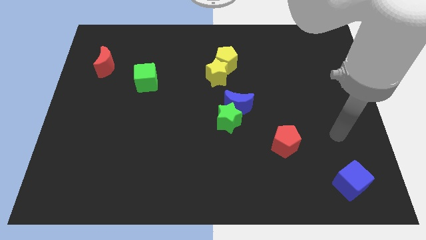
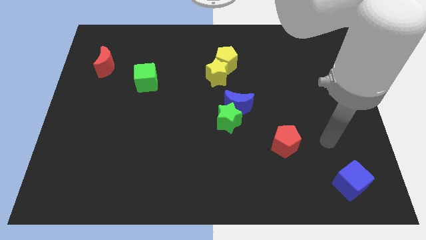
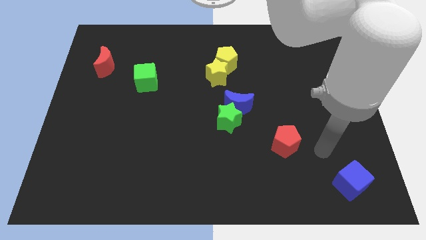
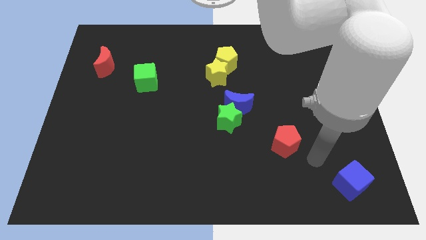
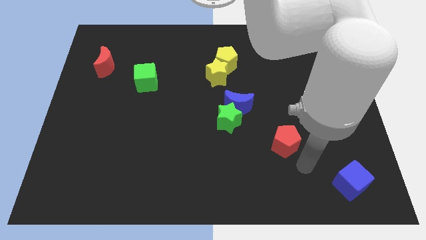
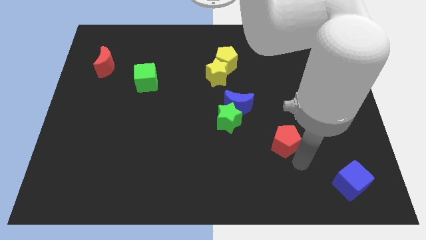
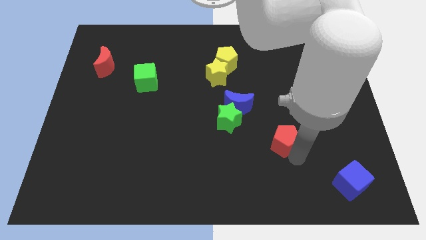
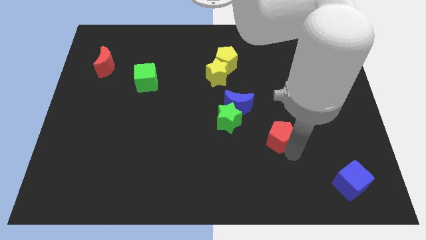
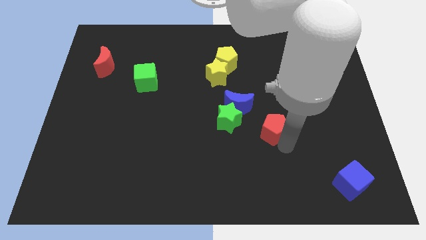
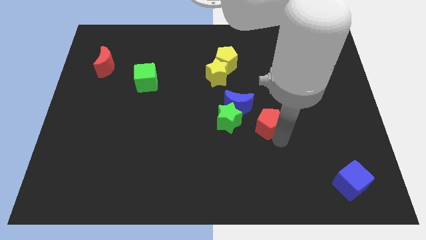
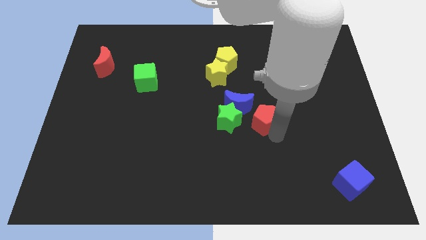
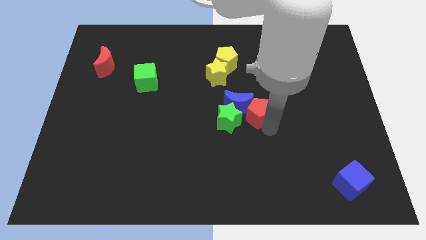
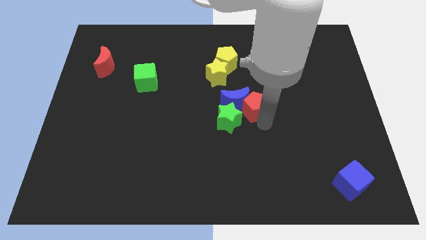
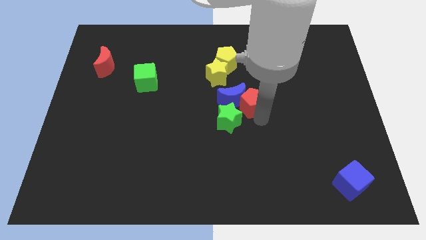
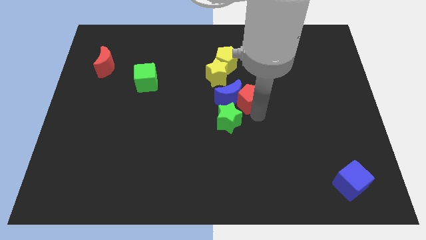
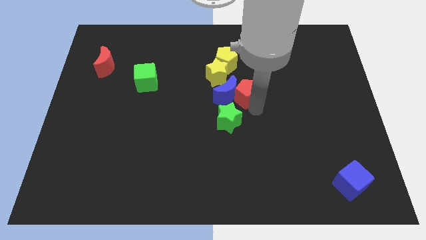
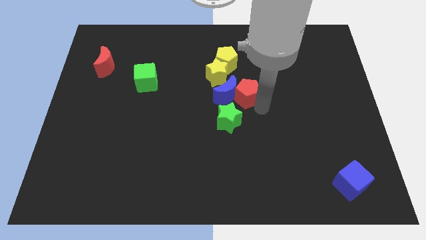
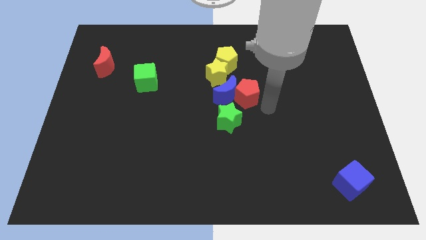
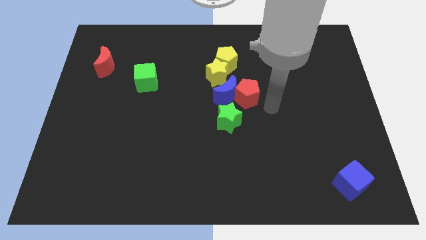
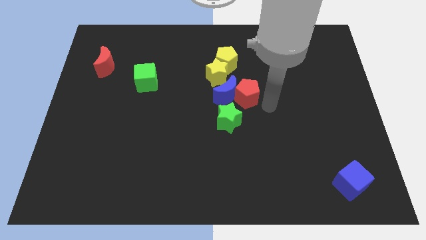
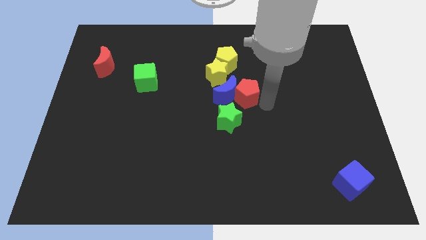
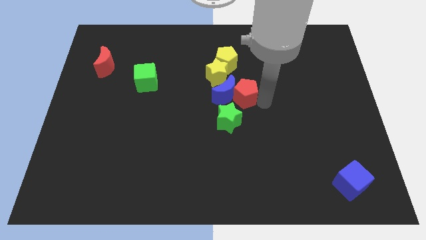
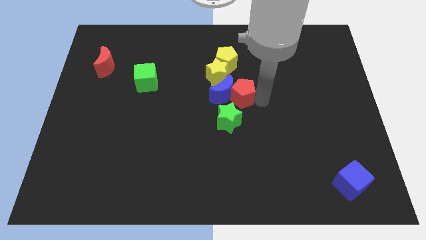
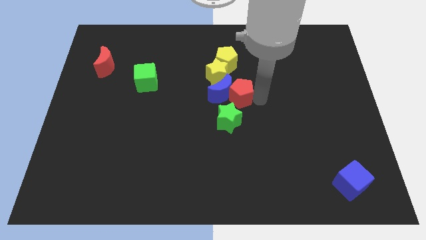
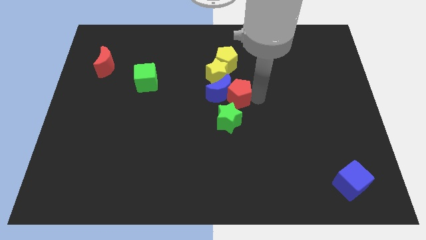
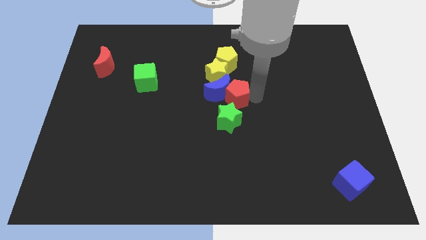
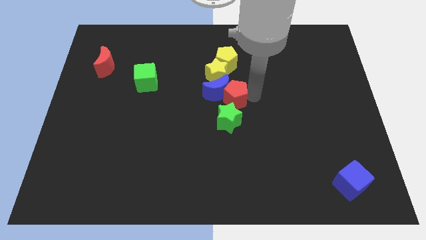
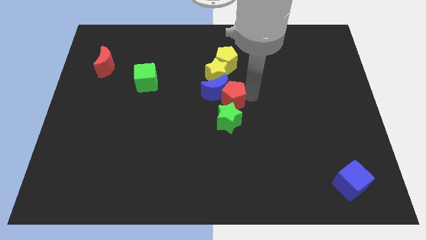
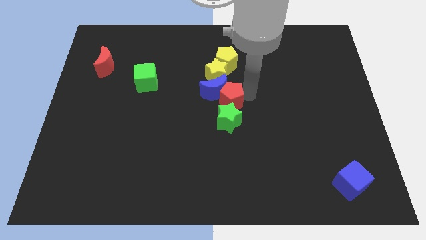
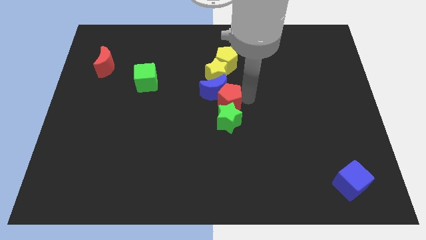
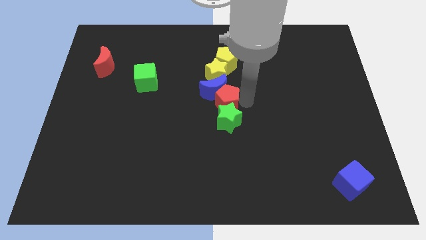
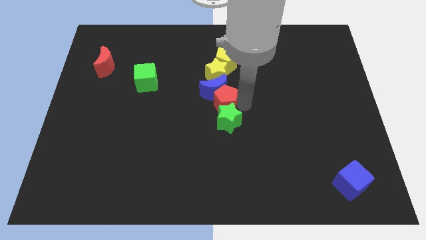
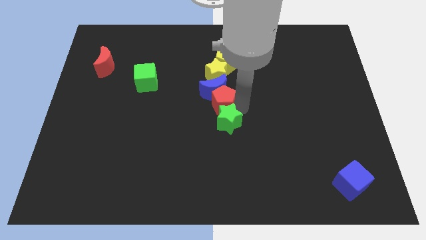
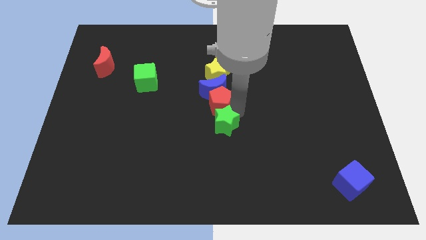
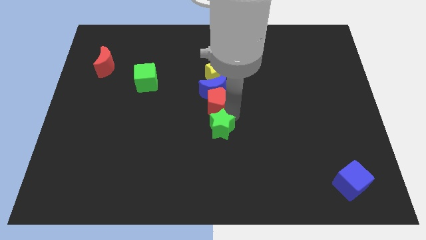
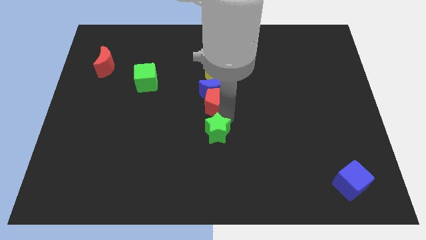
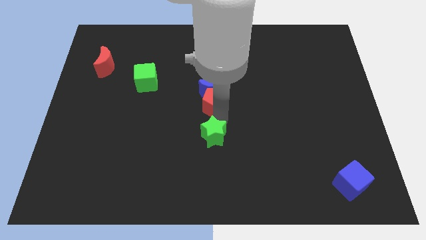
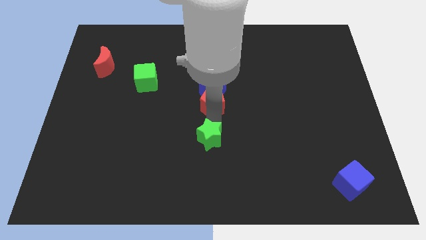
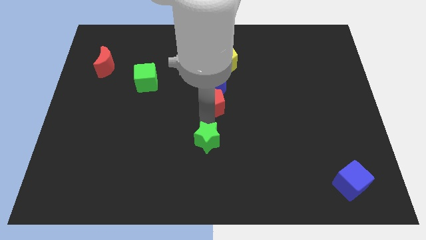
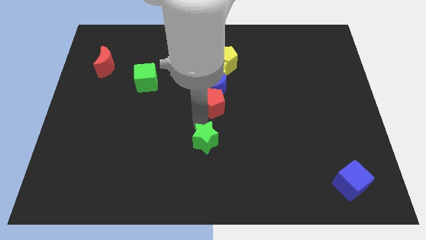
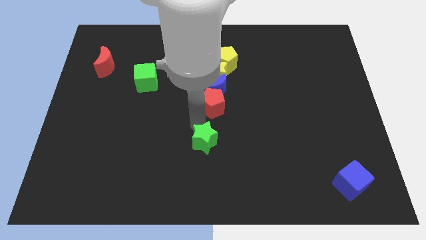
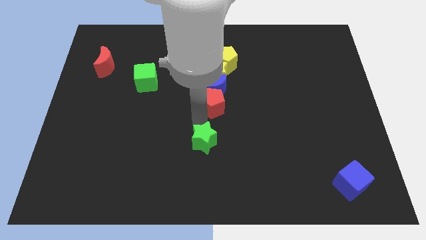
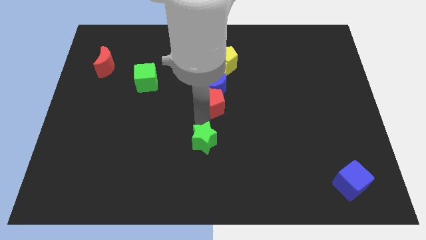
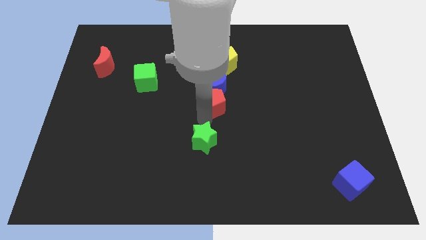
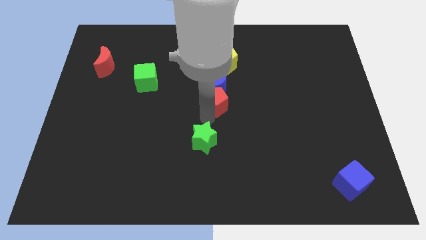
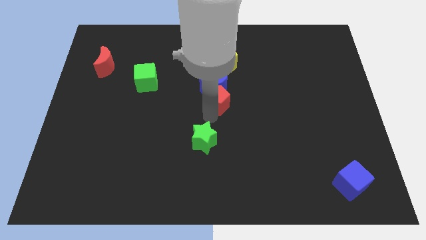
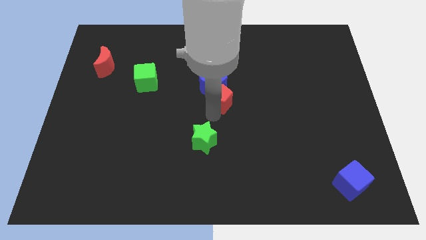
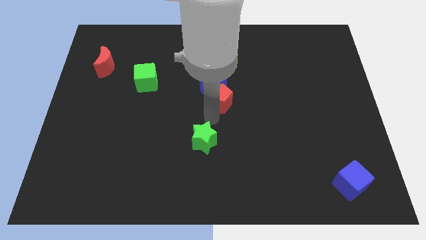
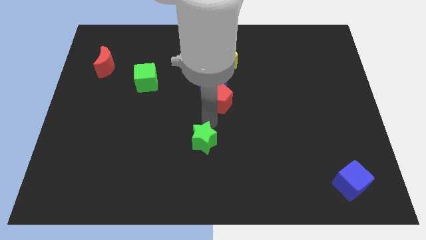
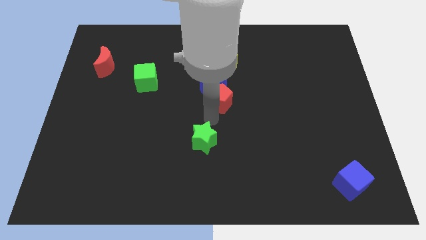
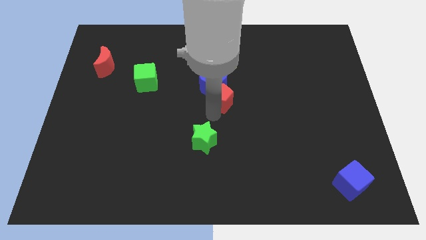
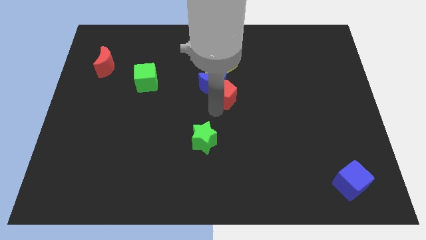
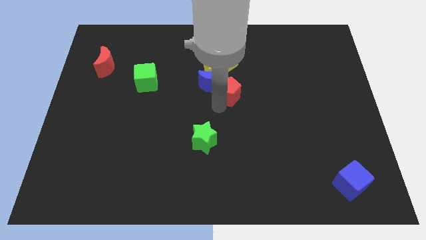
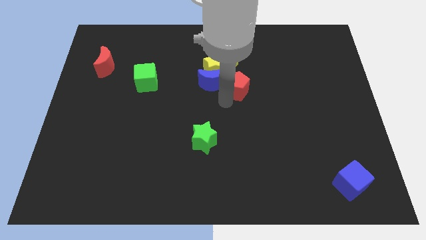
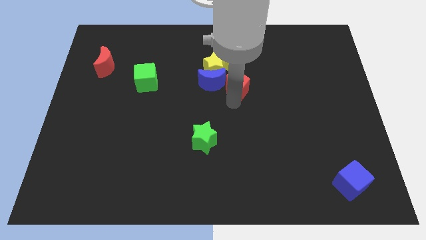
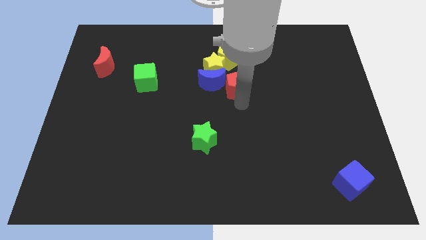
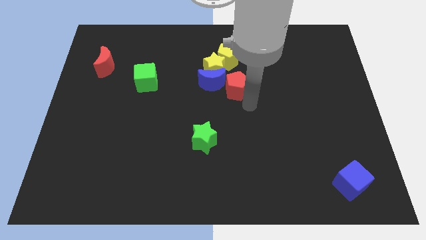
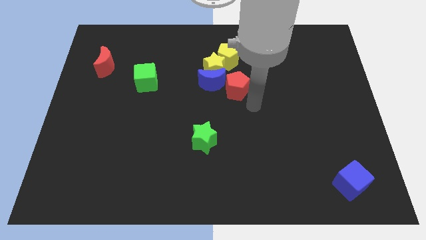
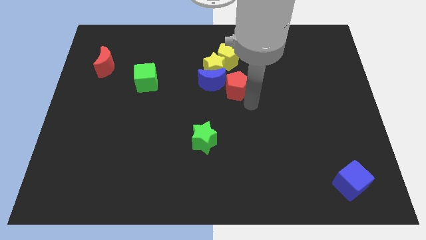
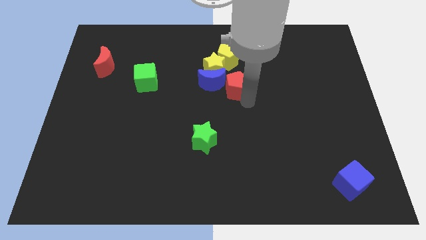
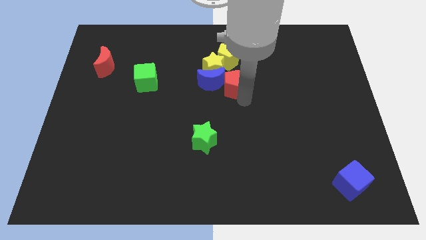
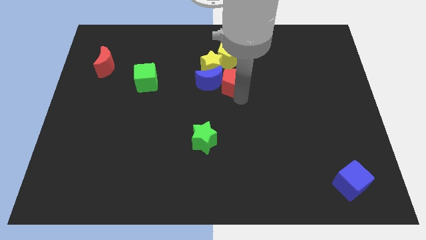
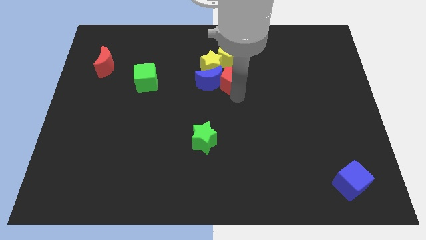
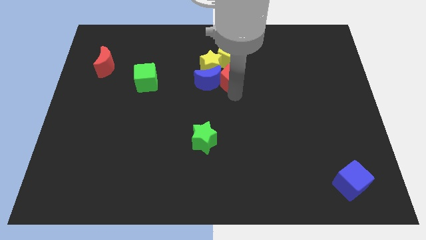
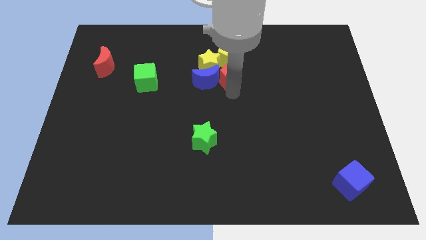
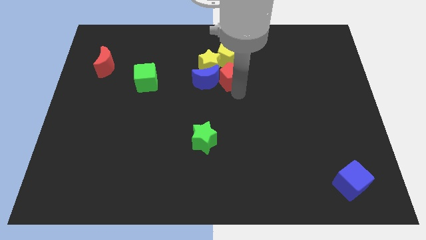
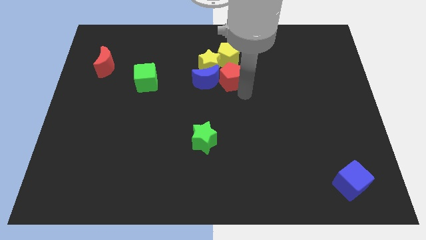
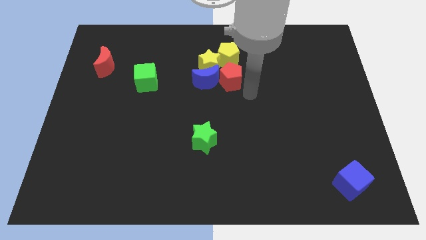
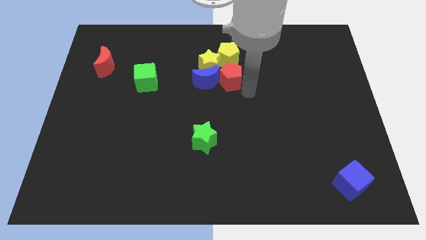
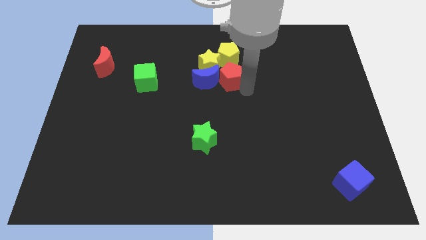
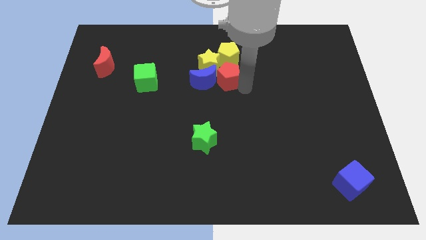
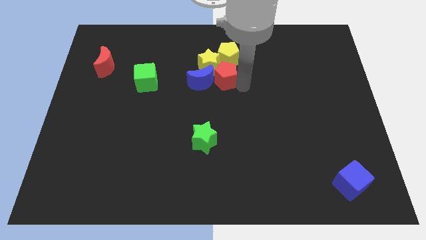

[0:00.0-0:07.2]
slide the red pentagon to the yellow star
